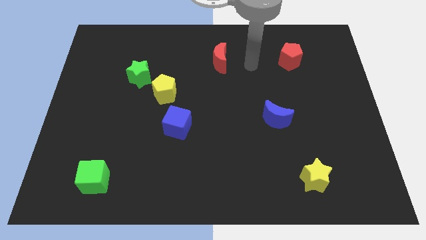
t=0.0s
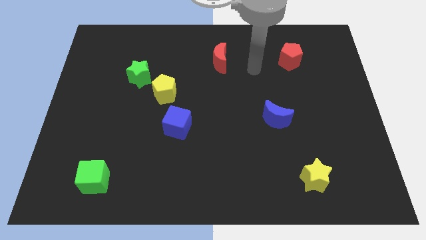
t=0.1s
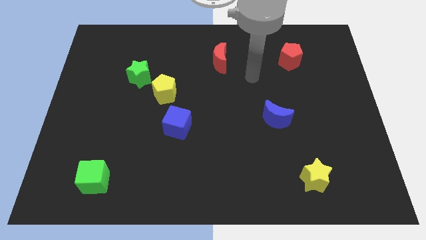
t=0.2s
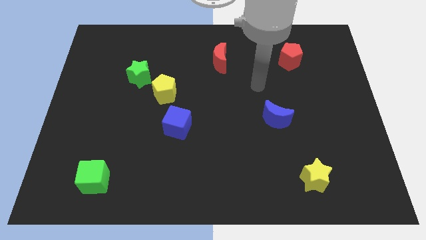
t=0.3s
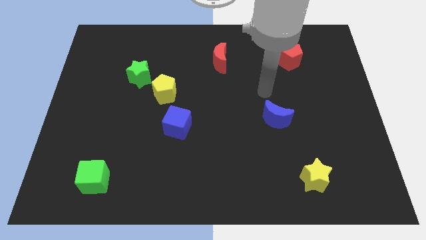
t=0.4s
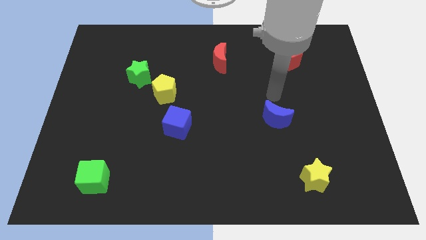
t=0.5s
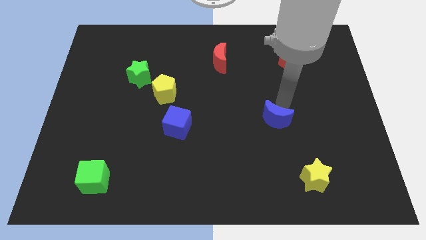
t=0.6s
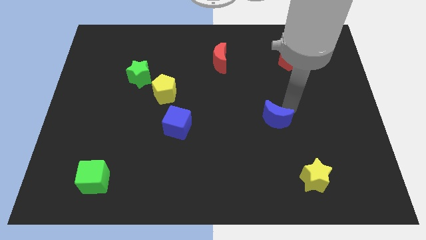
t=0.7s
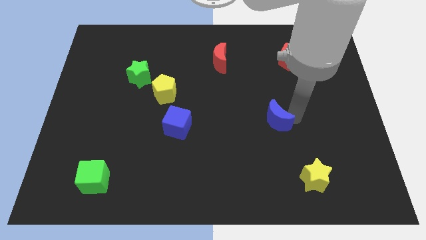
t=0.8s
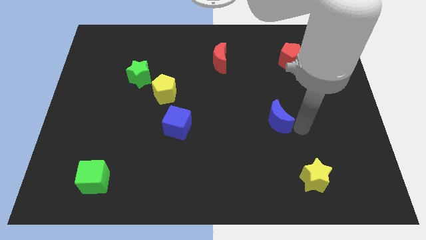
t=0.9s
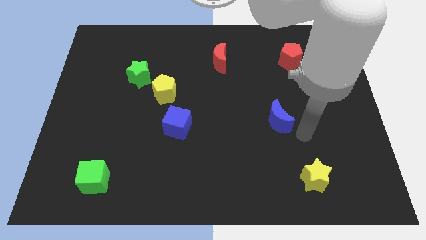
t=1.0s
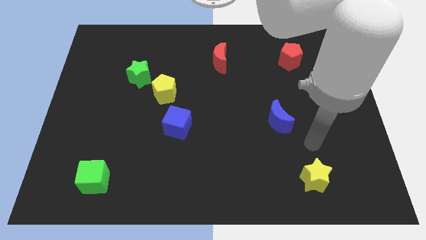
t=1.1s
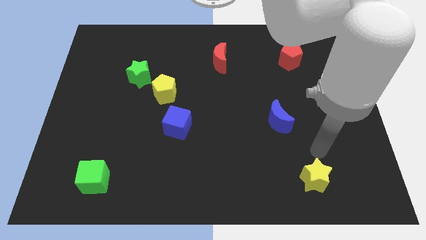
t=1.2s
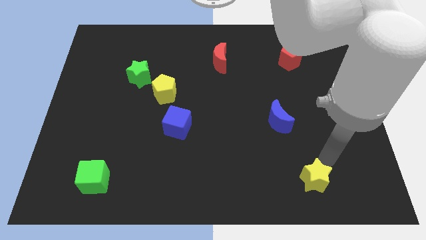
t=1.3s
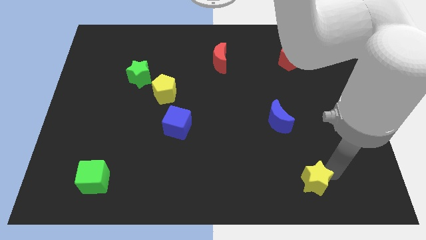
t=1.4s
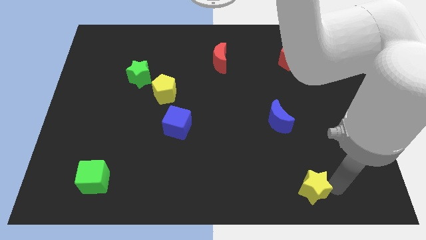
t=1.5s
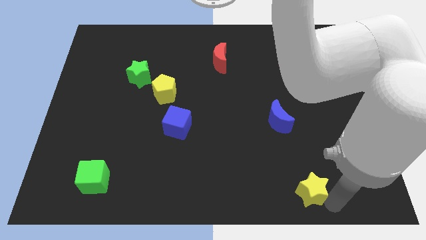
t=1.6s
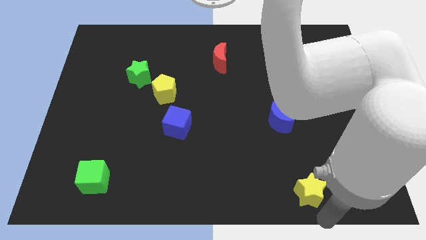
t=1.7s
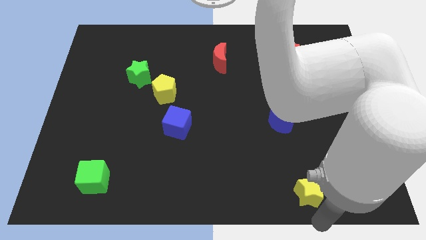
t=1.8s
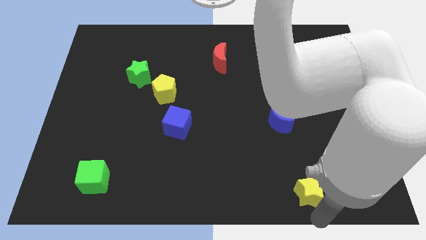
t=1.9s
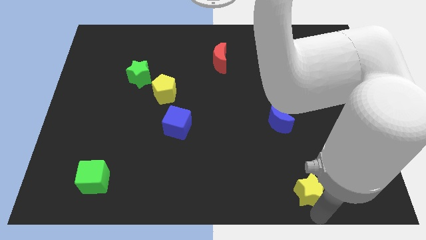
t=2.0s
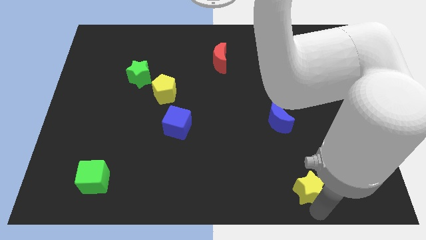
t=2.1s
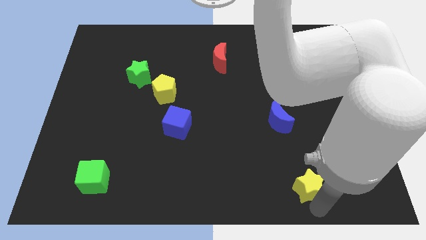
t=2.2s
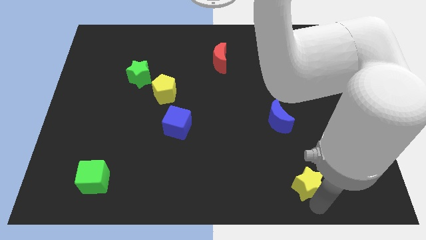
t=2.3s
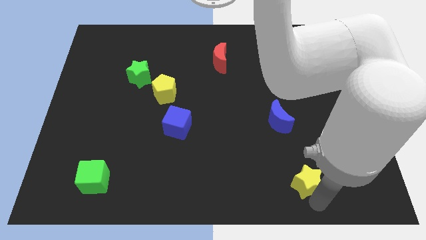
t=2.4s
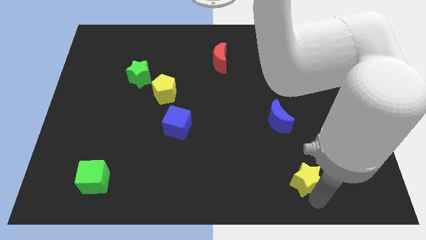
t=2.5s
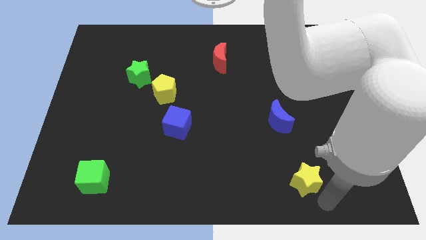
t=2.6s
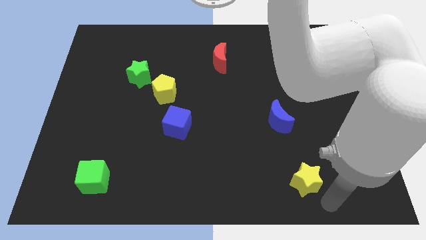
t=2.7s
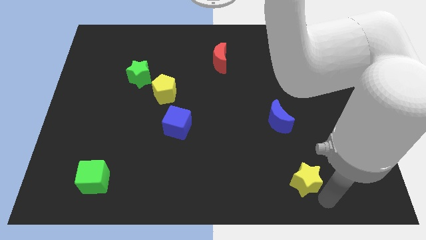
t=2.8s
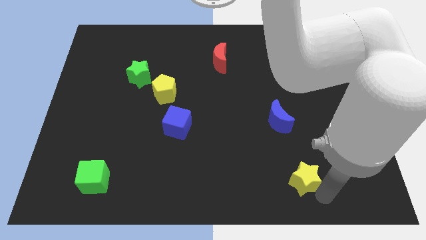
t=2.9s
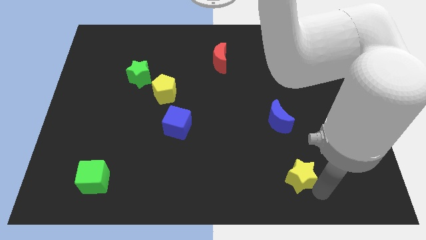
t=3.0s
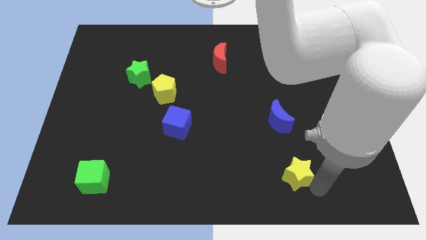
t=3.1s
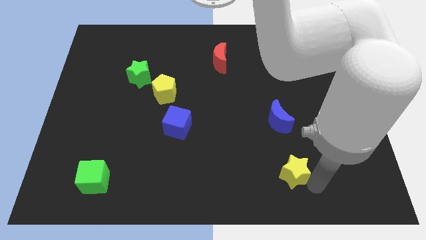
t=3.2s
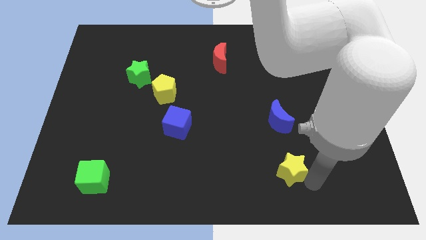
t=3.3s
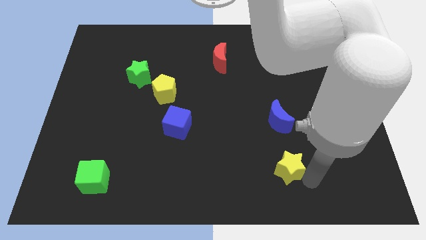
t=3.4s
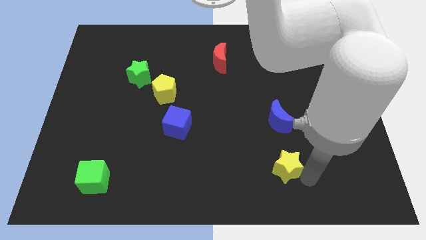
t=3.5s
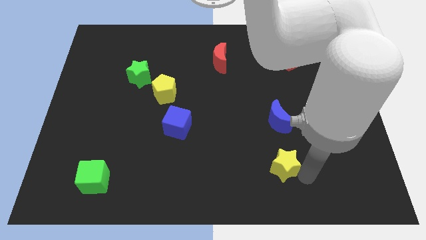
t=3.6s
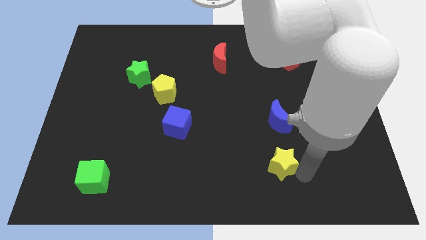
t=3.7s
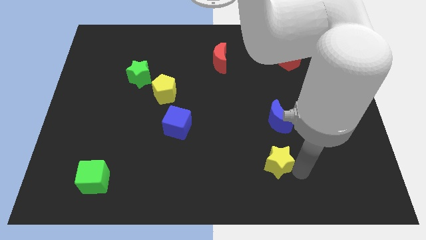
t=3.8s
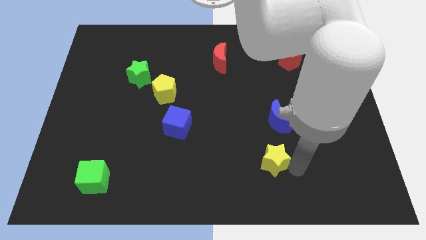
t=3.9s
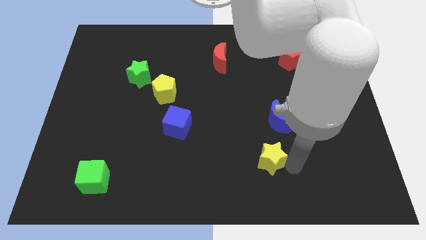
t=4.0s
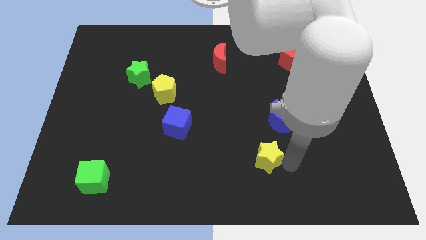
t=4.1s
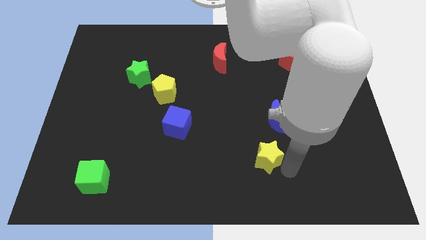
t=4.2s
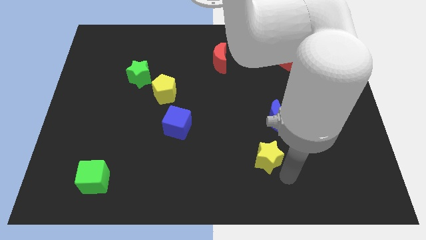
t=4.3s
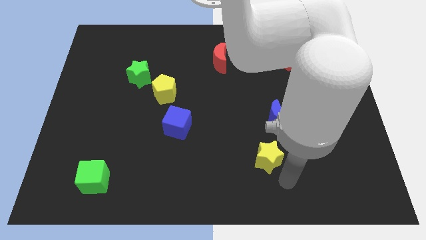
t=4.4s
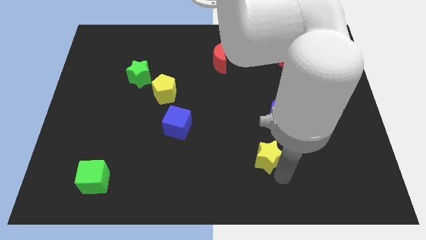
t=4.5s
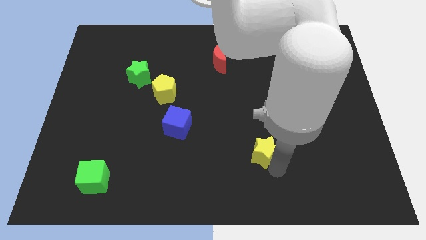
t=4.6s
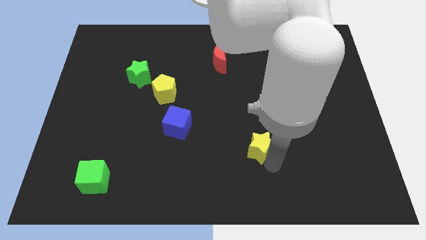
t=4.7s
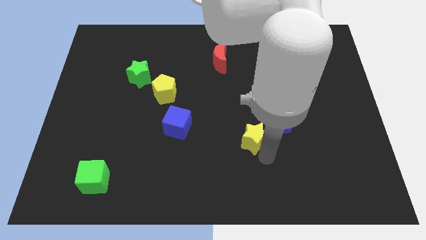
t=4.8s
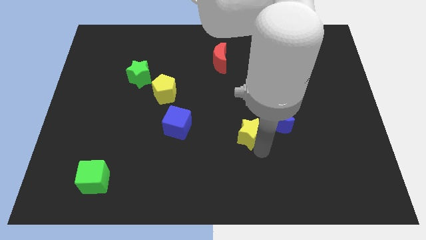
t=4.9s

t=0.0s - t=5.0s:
move the yellow star to the middle

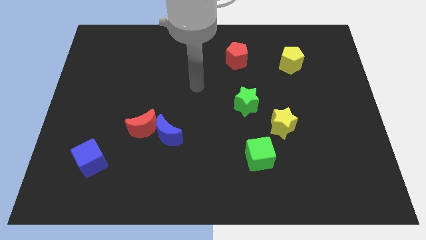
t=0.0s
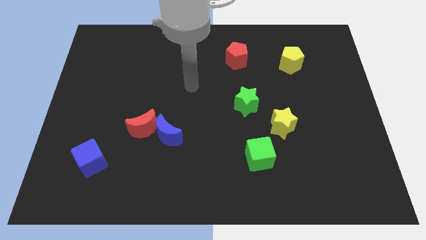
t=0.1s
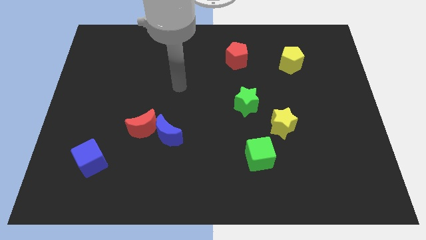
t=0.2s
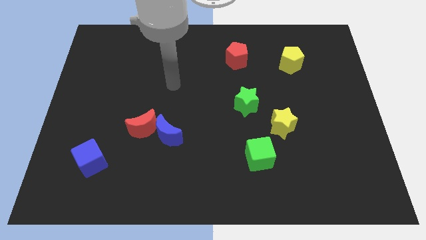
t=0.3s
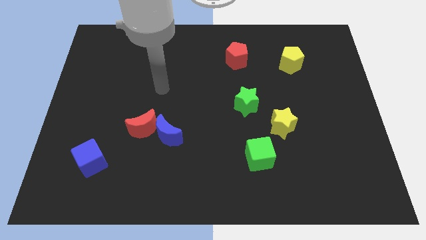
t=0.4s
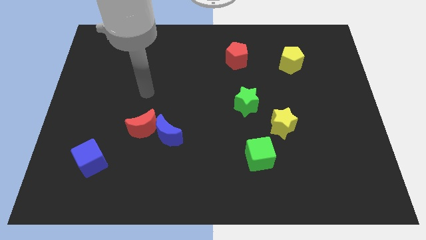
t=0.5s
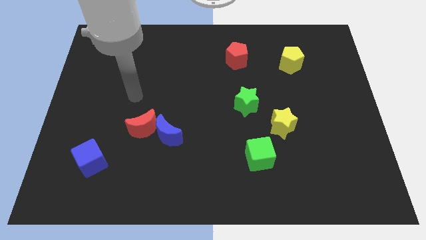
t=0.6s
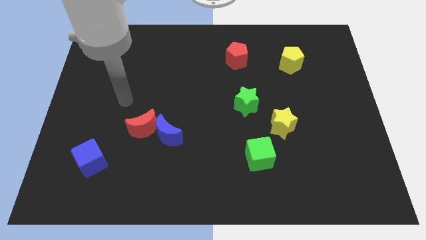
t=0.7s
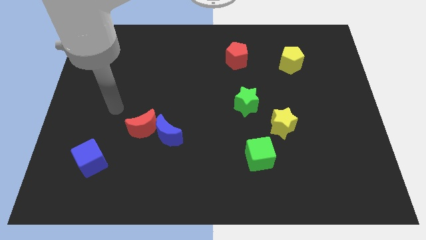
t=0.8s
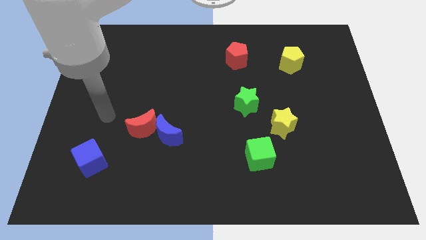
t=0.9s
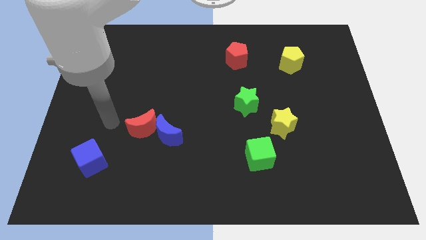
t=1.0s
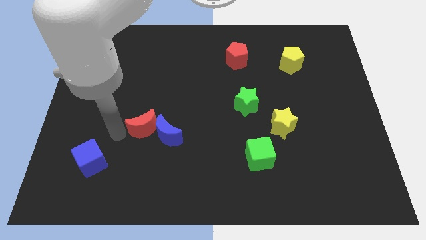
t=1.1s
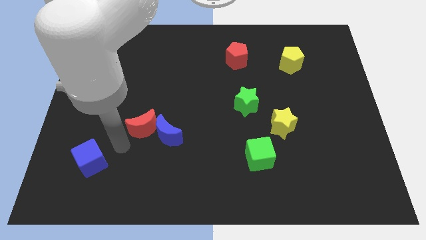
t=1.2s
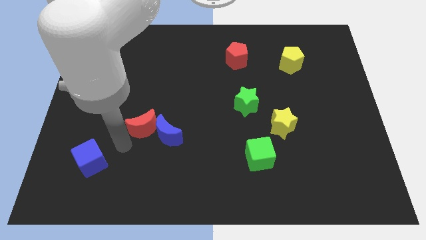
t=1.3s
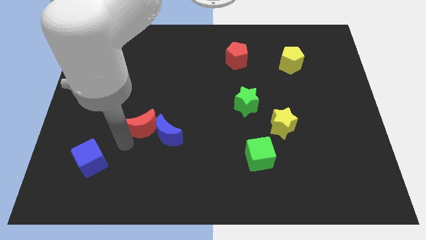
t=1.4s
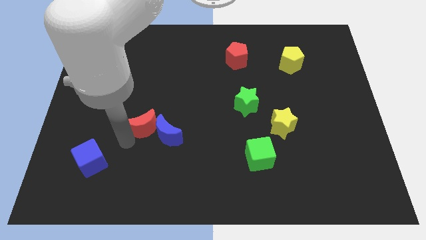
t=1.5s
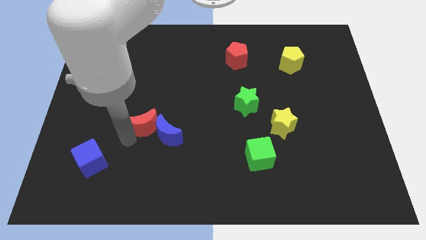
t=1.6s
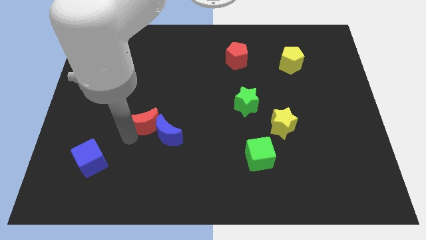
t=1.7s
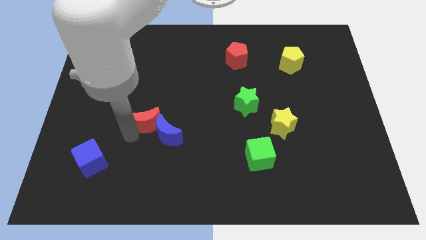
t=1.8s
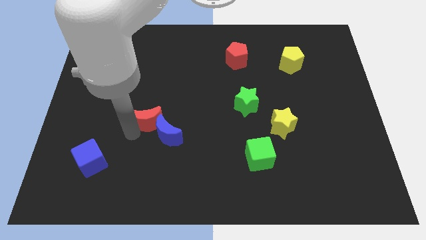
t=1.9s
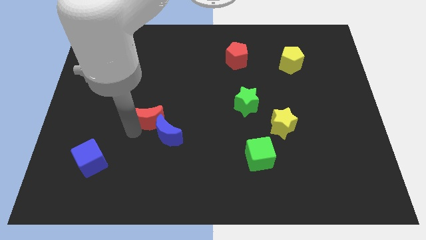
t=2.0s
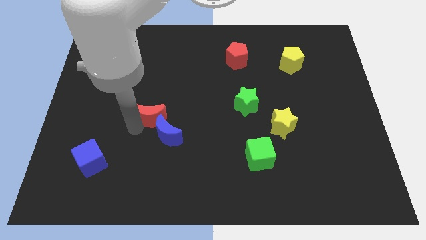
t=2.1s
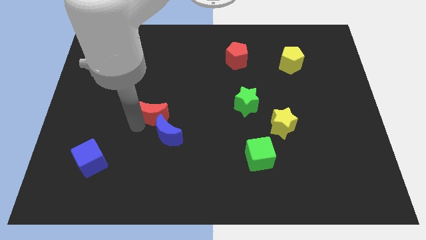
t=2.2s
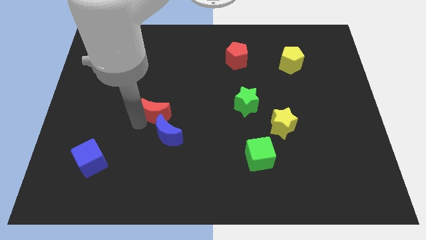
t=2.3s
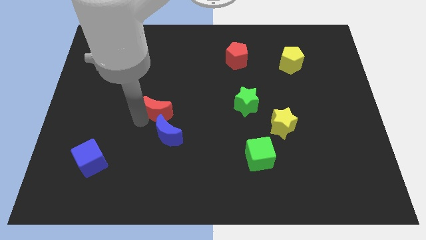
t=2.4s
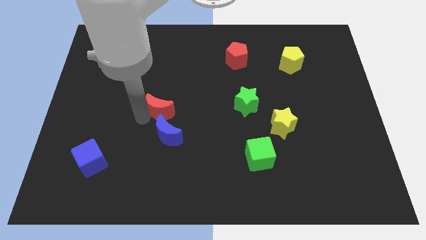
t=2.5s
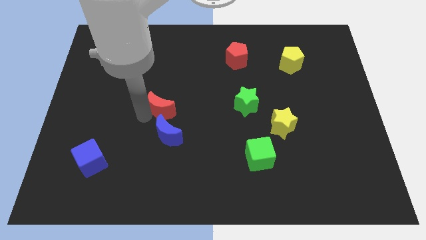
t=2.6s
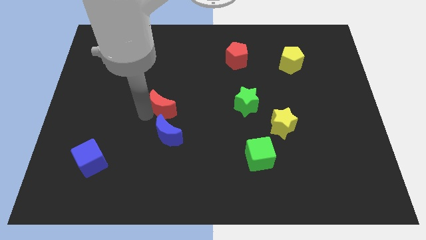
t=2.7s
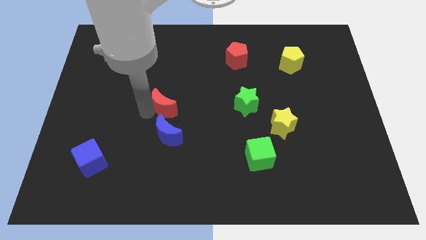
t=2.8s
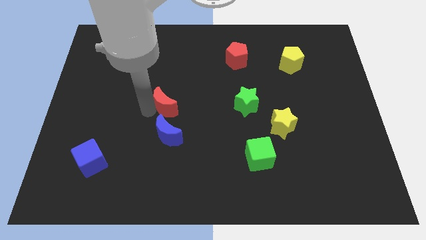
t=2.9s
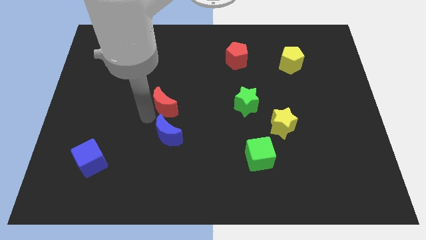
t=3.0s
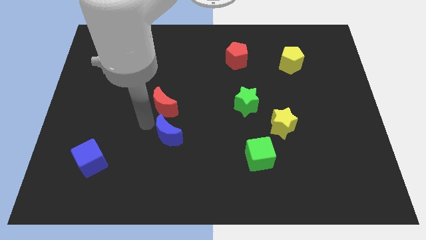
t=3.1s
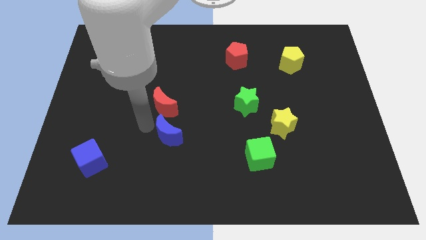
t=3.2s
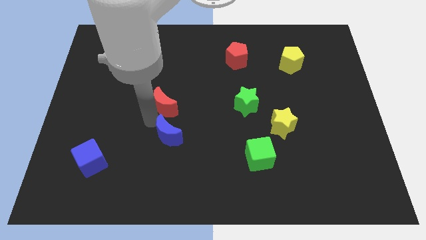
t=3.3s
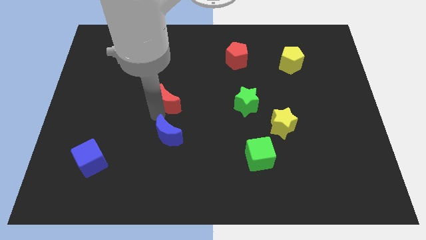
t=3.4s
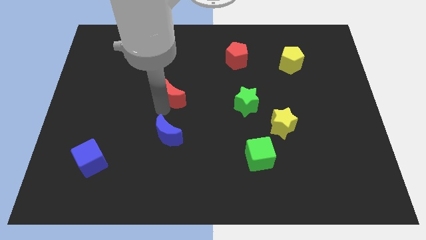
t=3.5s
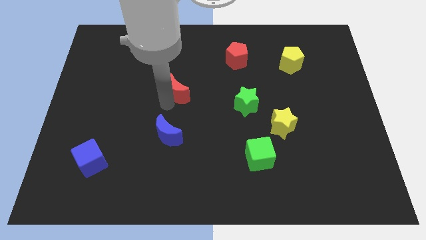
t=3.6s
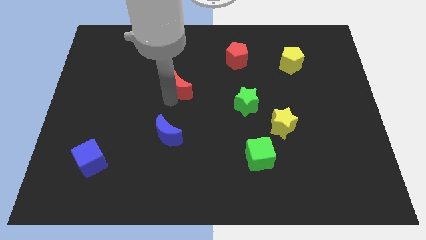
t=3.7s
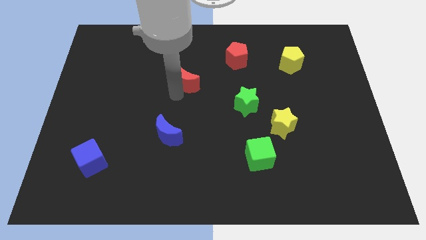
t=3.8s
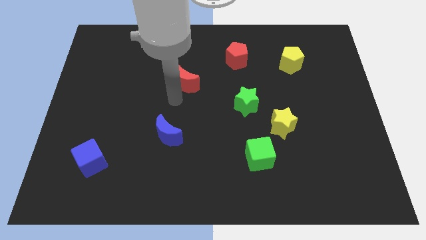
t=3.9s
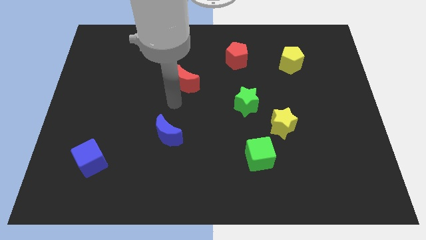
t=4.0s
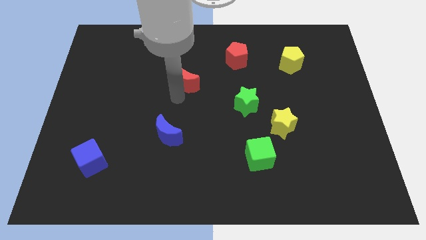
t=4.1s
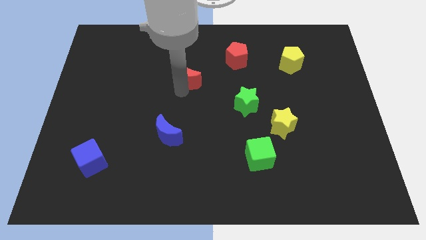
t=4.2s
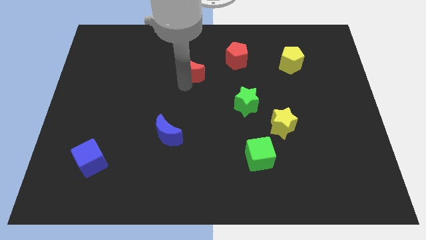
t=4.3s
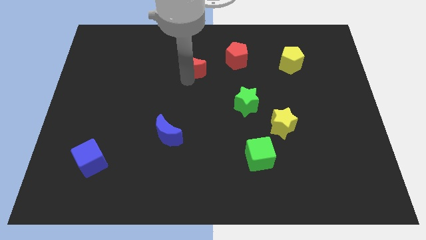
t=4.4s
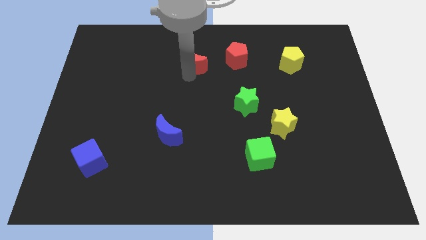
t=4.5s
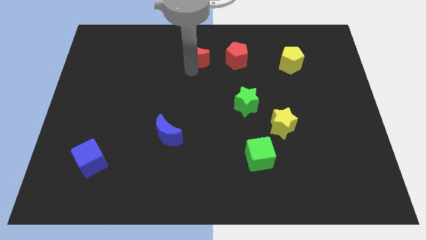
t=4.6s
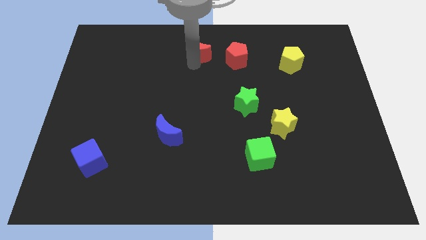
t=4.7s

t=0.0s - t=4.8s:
push the red moon to the top
